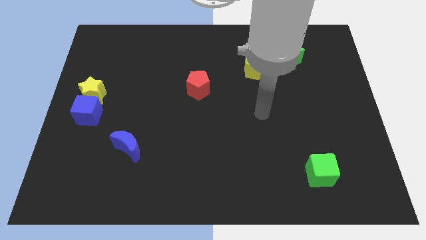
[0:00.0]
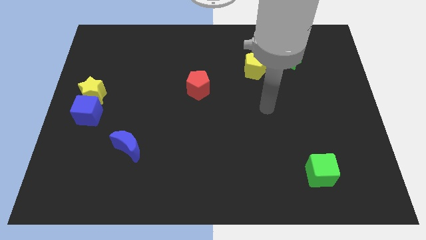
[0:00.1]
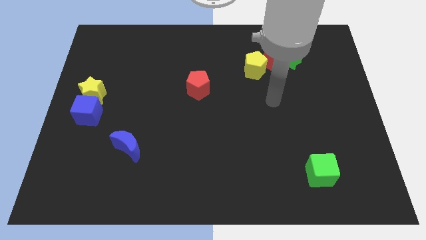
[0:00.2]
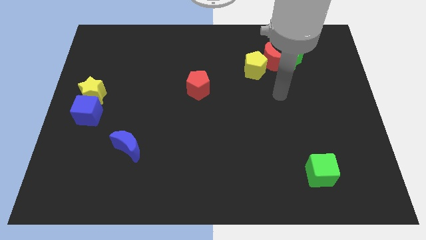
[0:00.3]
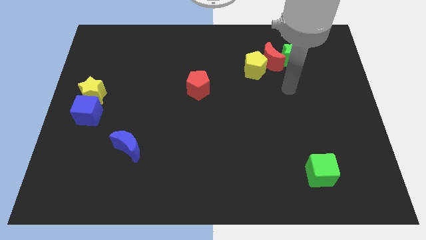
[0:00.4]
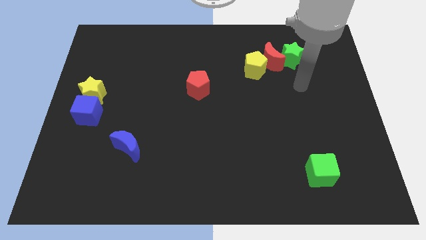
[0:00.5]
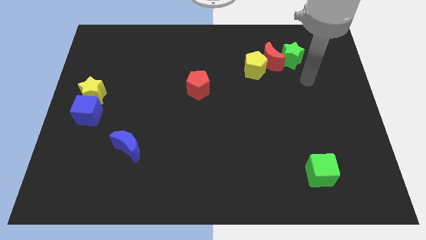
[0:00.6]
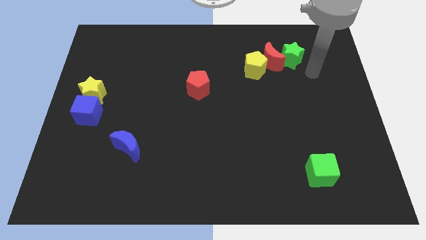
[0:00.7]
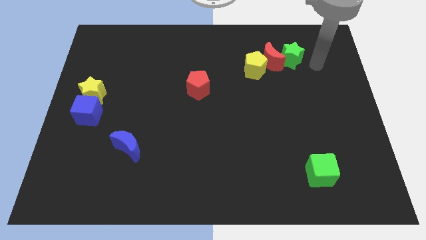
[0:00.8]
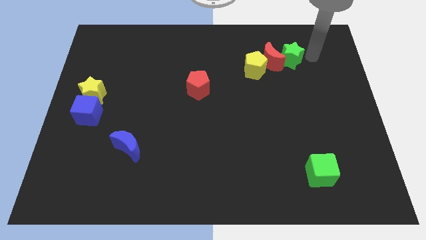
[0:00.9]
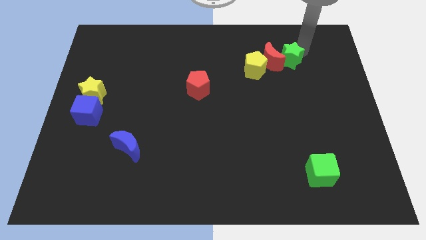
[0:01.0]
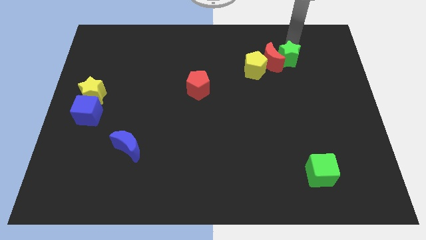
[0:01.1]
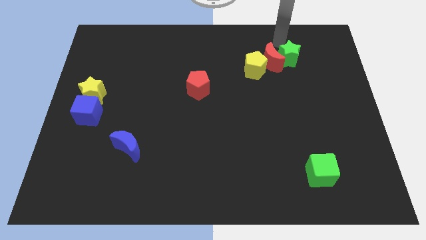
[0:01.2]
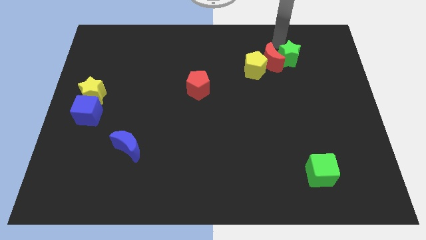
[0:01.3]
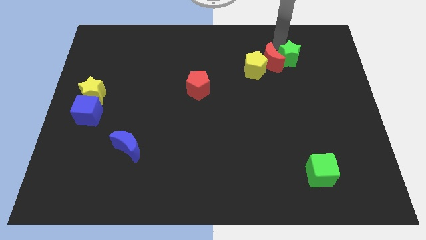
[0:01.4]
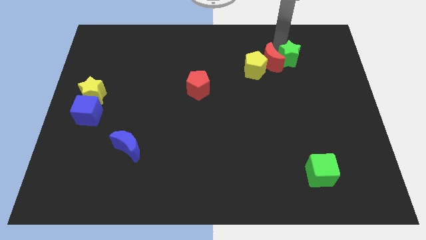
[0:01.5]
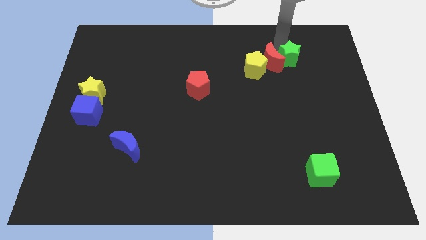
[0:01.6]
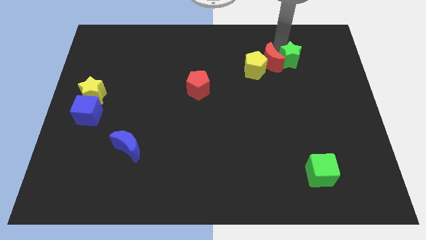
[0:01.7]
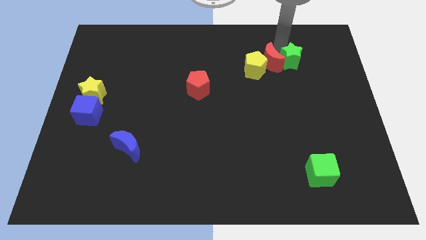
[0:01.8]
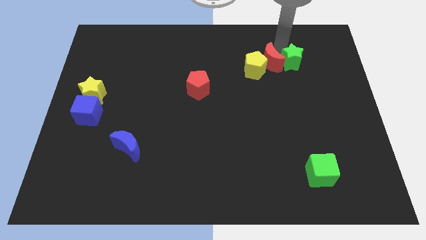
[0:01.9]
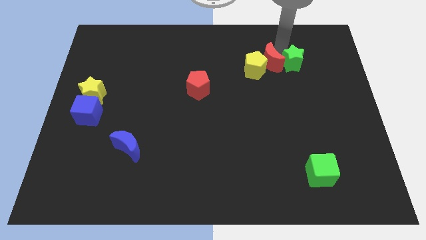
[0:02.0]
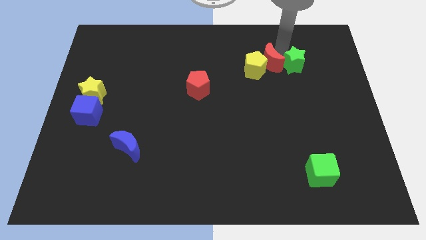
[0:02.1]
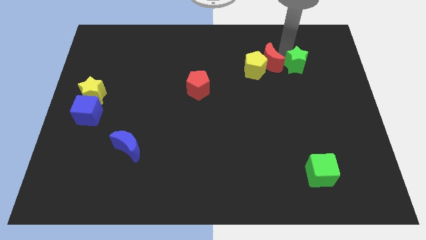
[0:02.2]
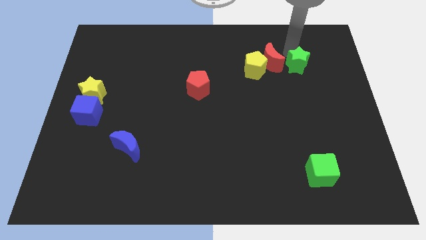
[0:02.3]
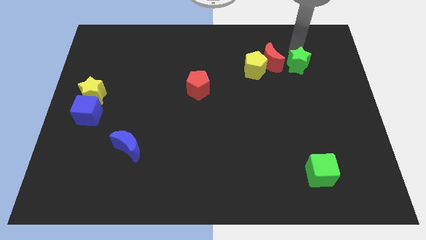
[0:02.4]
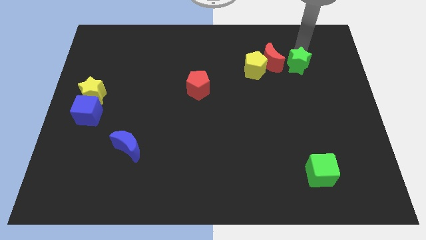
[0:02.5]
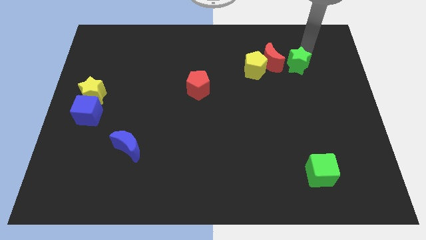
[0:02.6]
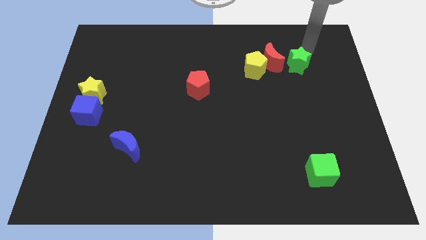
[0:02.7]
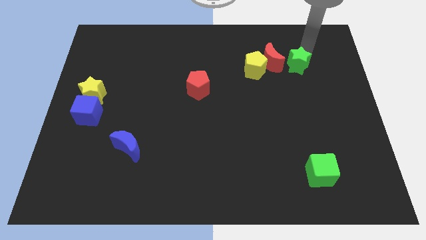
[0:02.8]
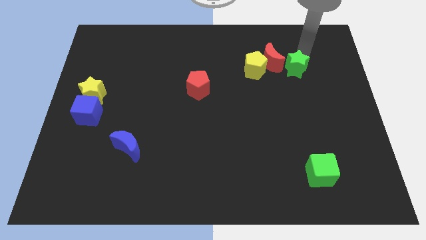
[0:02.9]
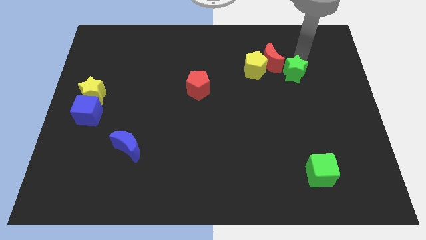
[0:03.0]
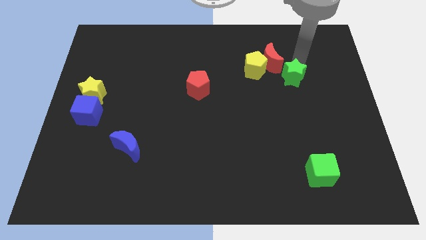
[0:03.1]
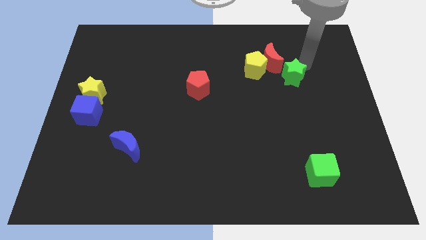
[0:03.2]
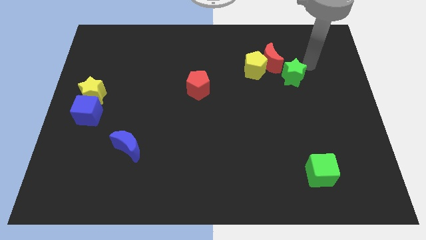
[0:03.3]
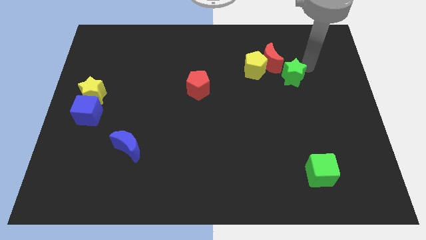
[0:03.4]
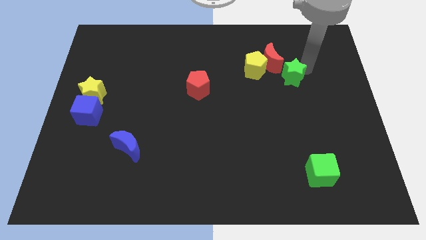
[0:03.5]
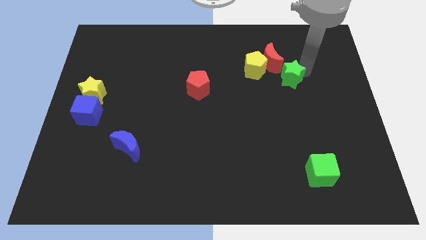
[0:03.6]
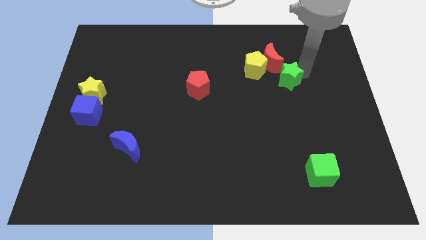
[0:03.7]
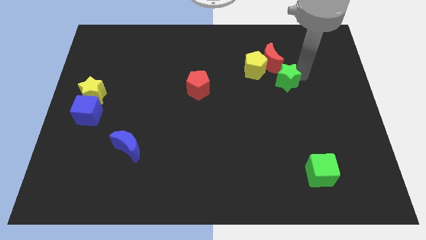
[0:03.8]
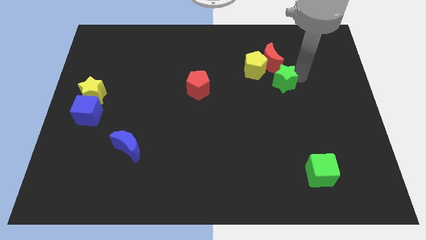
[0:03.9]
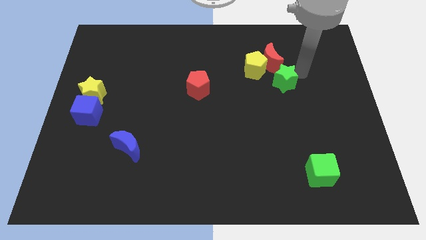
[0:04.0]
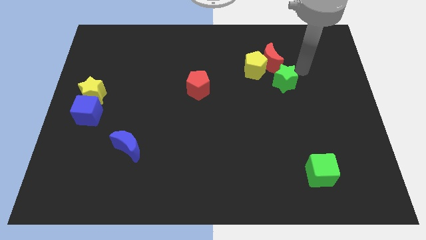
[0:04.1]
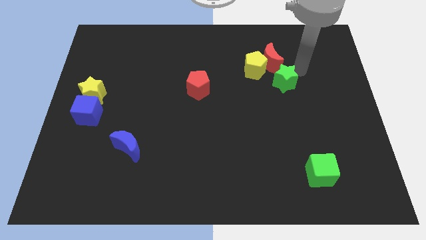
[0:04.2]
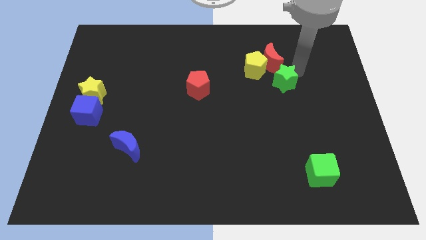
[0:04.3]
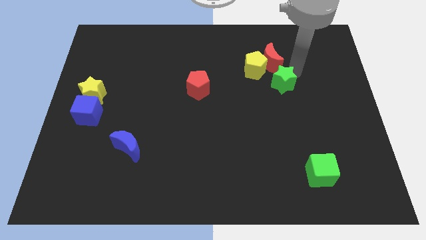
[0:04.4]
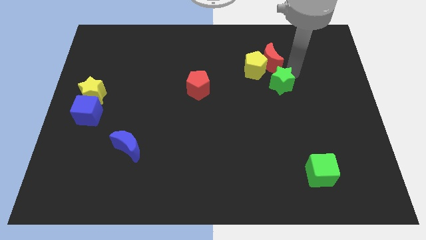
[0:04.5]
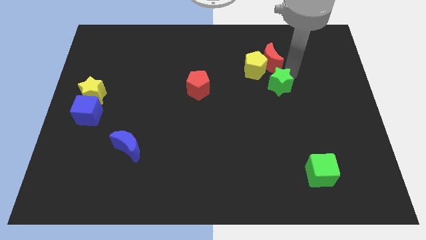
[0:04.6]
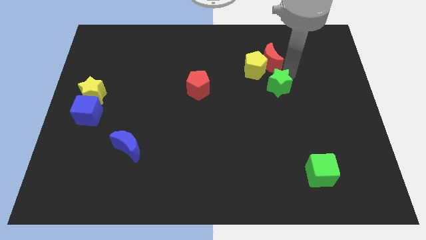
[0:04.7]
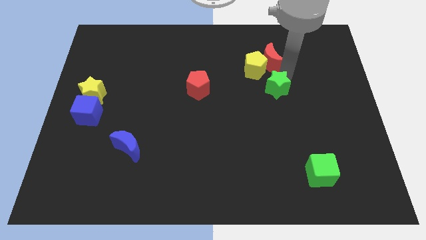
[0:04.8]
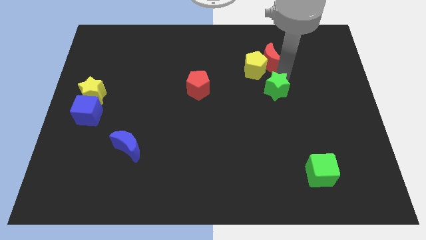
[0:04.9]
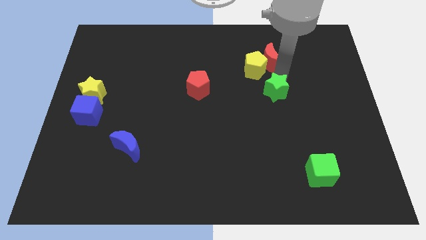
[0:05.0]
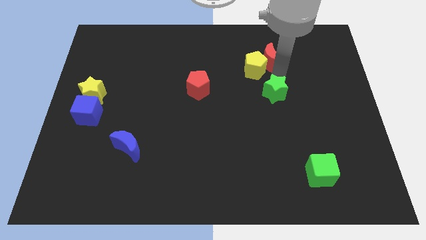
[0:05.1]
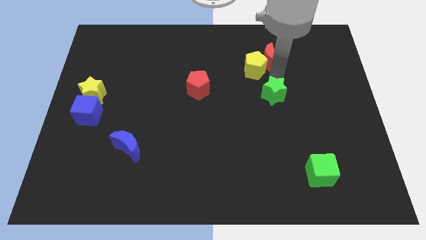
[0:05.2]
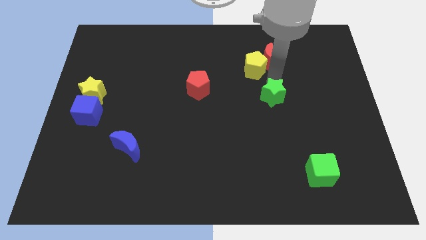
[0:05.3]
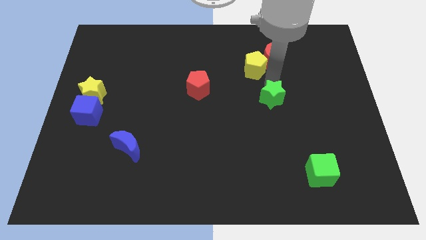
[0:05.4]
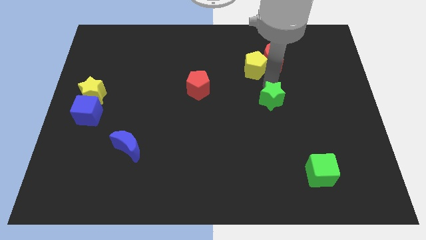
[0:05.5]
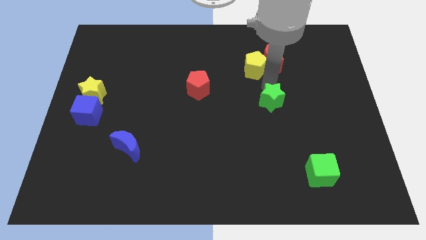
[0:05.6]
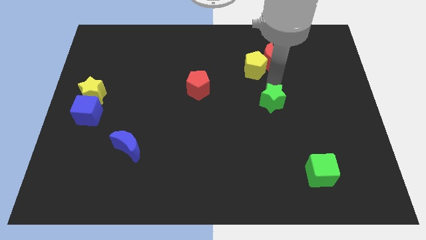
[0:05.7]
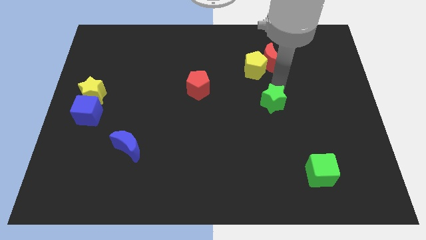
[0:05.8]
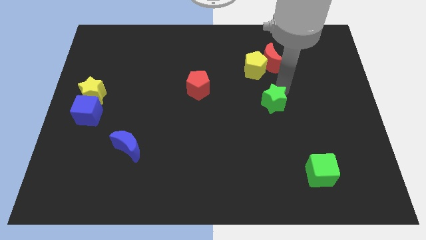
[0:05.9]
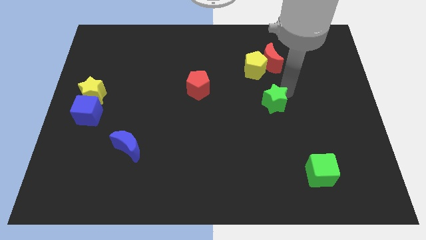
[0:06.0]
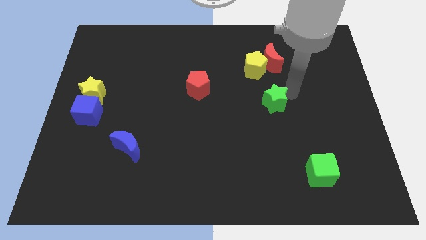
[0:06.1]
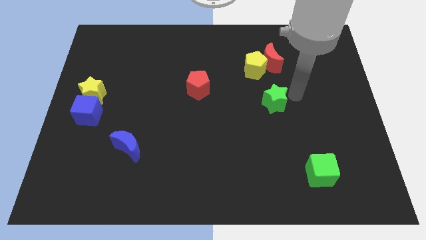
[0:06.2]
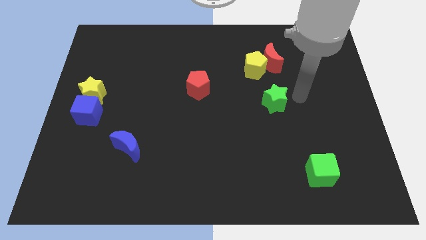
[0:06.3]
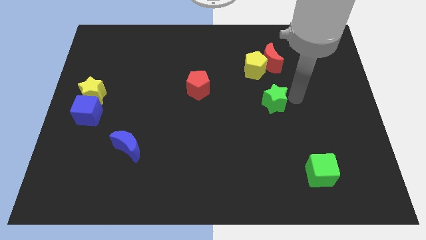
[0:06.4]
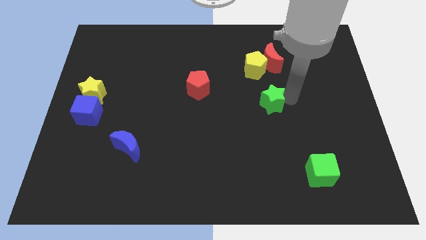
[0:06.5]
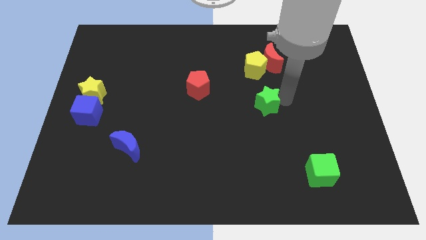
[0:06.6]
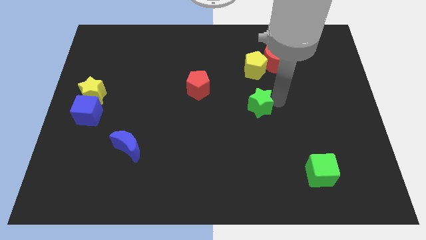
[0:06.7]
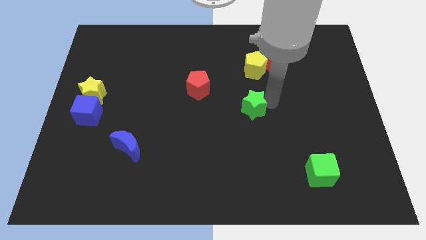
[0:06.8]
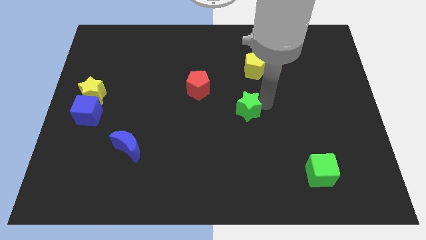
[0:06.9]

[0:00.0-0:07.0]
slide the green star downwards and to the left diagonally

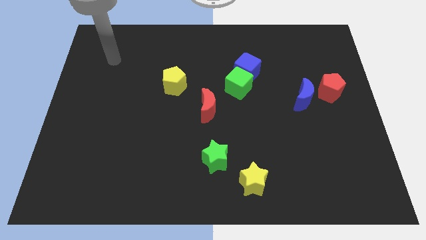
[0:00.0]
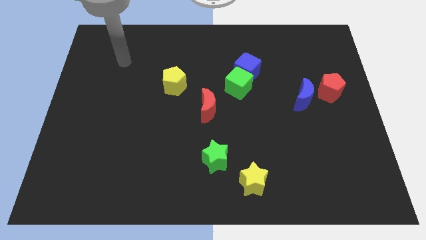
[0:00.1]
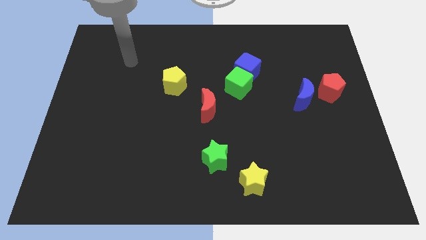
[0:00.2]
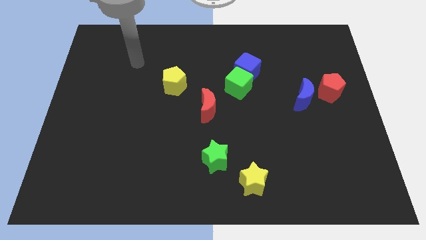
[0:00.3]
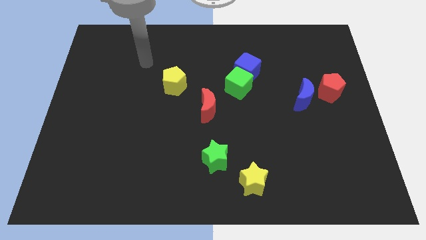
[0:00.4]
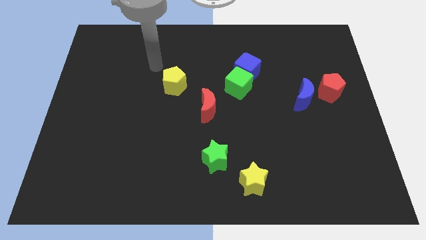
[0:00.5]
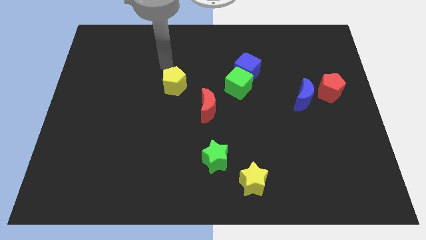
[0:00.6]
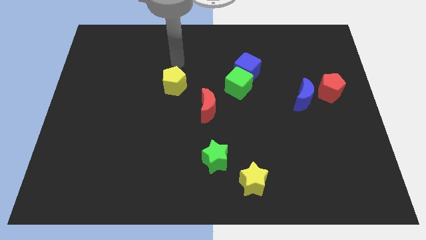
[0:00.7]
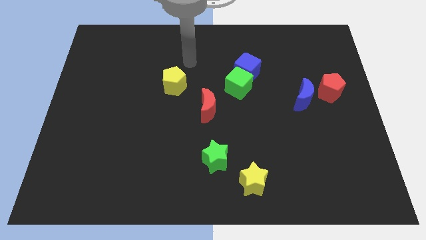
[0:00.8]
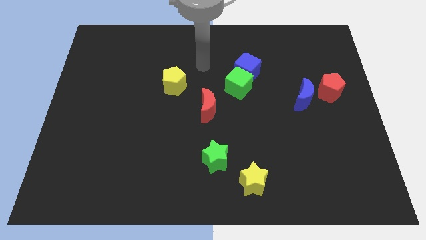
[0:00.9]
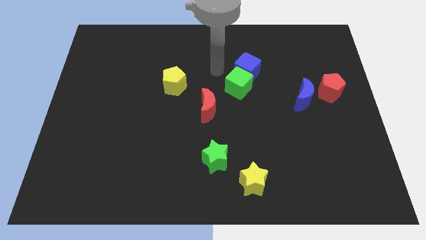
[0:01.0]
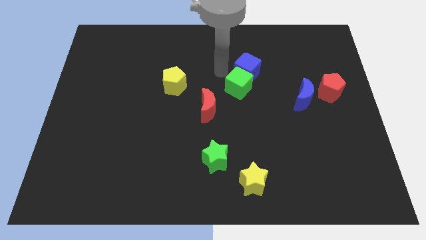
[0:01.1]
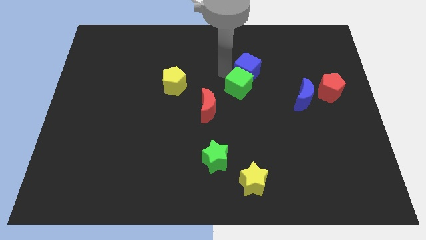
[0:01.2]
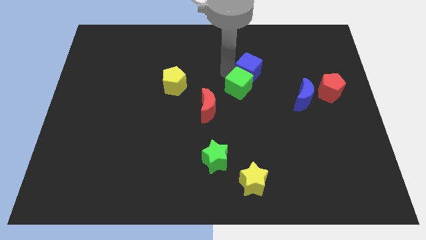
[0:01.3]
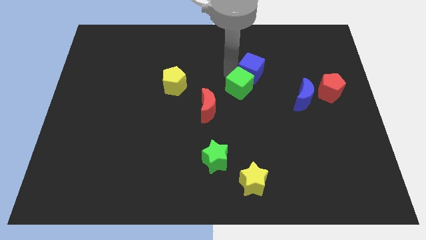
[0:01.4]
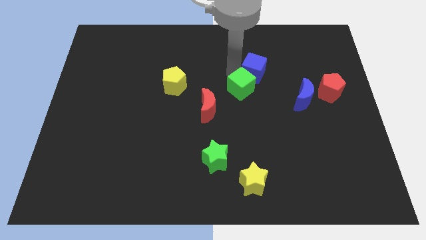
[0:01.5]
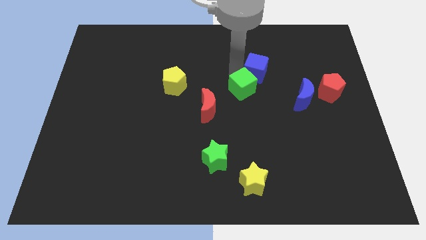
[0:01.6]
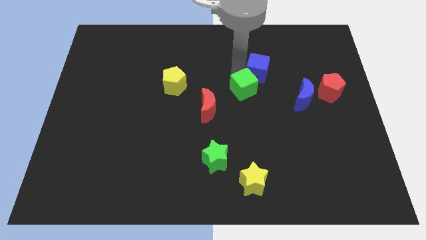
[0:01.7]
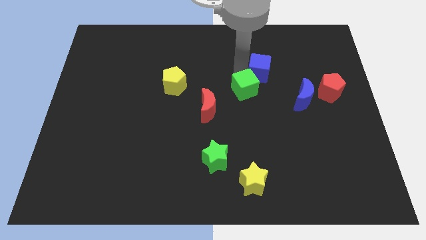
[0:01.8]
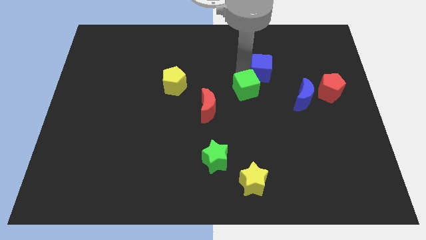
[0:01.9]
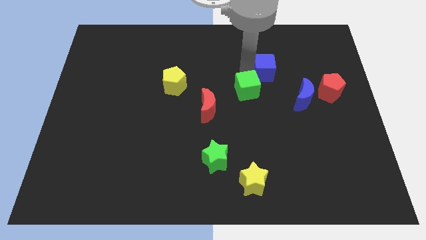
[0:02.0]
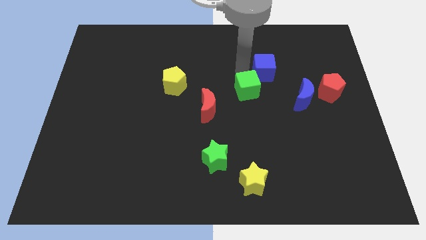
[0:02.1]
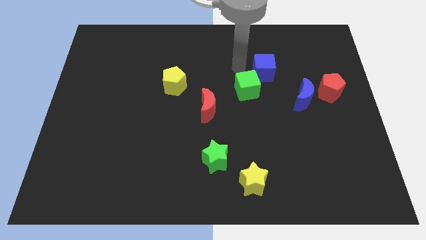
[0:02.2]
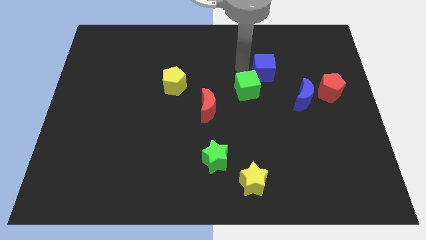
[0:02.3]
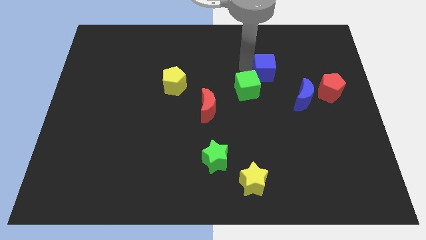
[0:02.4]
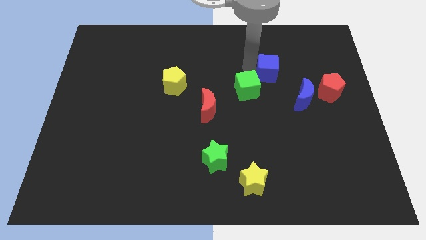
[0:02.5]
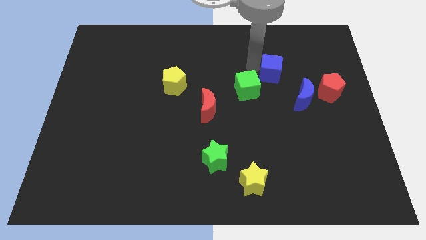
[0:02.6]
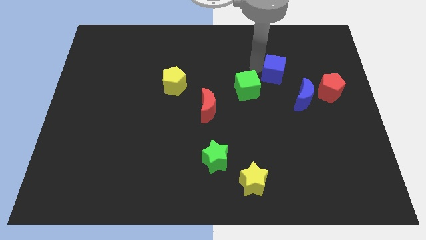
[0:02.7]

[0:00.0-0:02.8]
move the blue cube somewhat to the right
